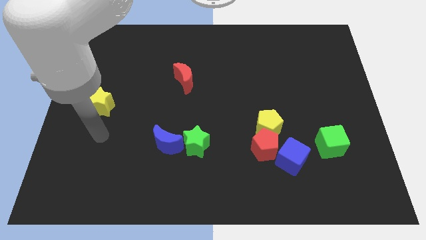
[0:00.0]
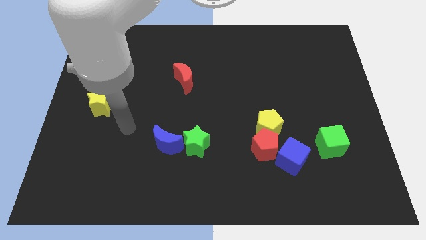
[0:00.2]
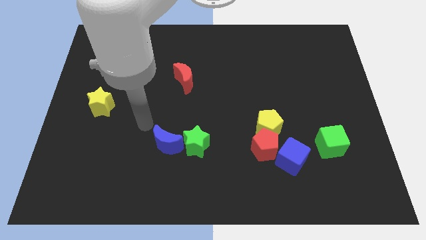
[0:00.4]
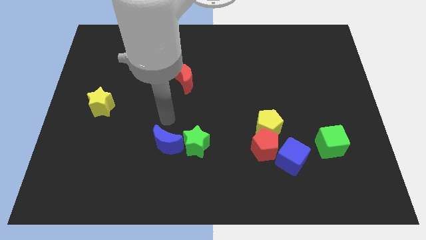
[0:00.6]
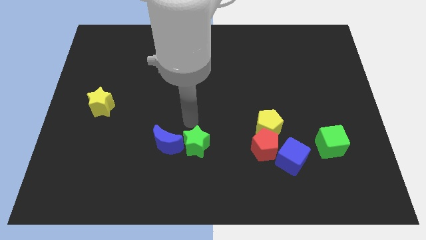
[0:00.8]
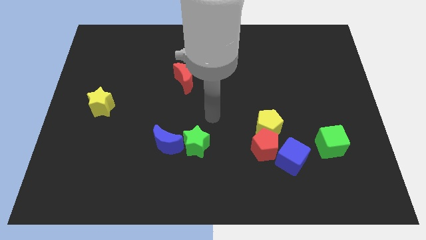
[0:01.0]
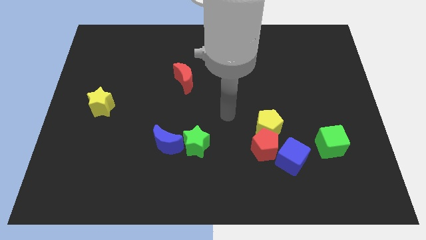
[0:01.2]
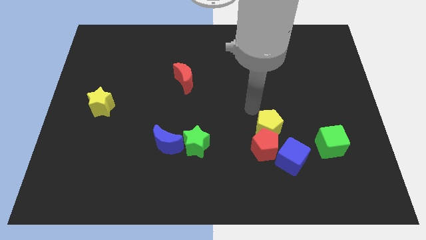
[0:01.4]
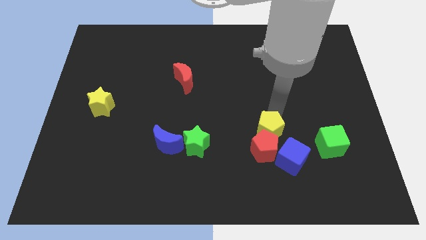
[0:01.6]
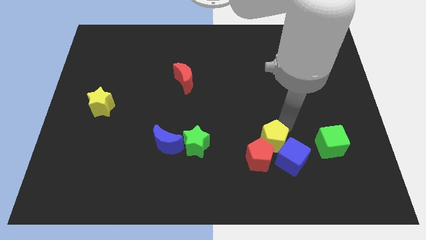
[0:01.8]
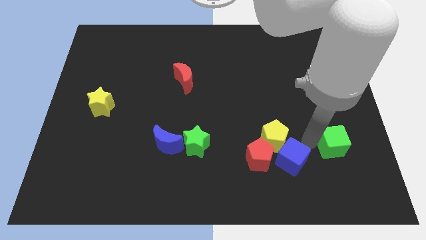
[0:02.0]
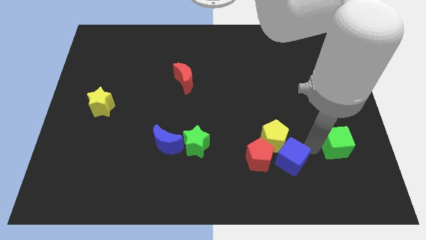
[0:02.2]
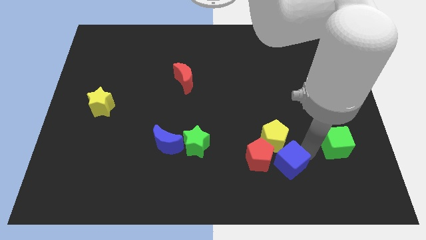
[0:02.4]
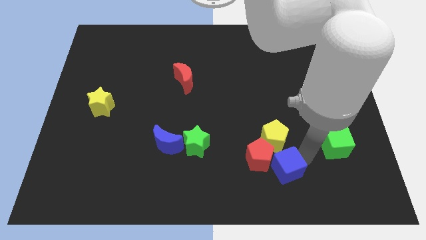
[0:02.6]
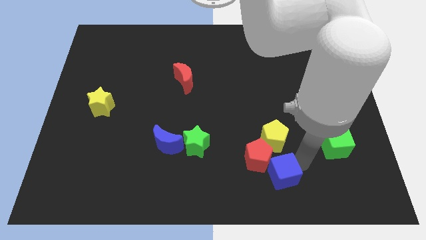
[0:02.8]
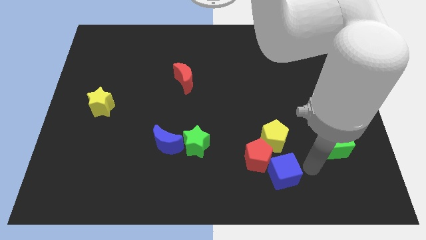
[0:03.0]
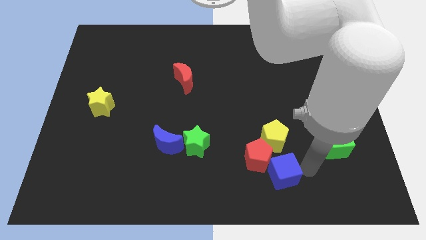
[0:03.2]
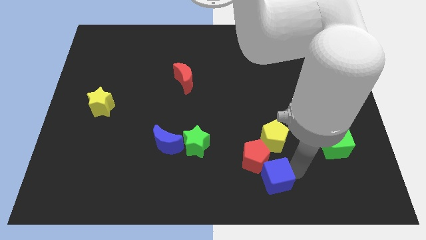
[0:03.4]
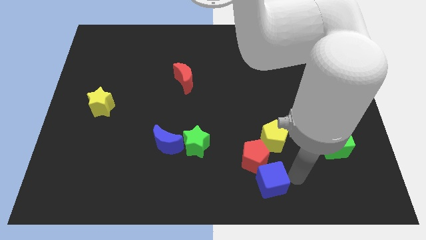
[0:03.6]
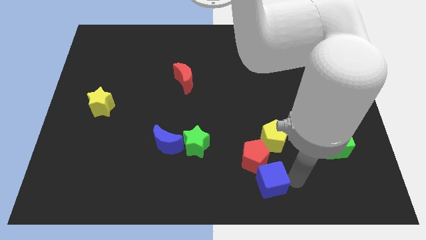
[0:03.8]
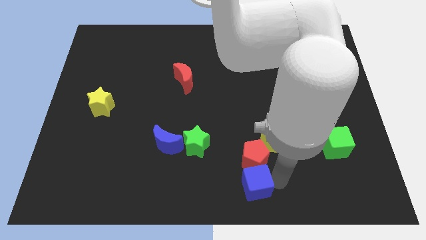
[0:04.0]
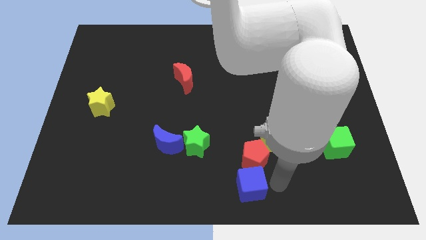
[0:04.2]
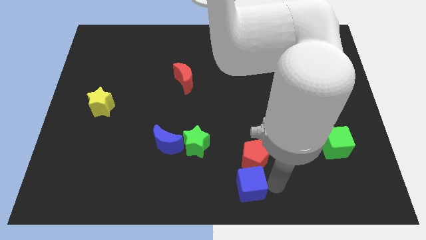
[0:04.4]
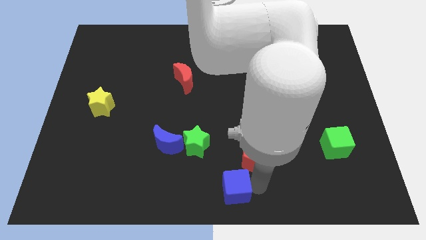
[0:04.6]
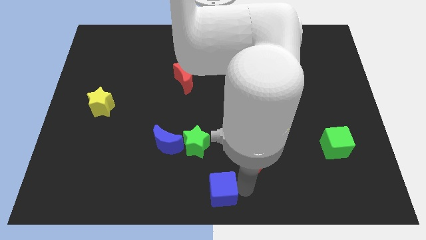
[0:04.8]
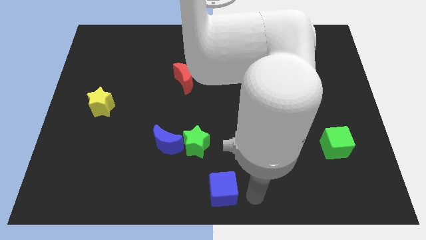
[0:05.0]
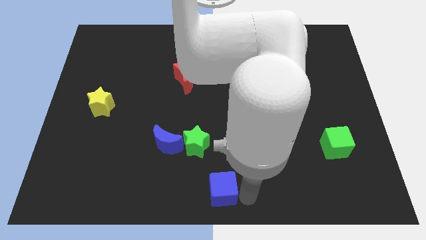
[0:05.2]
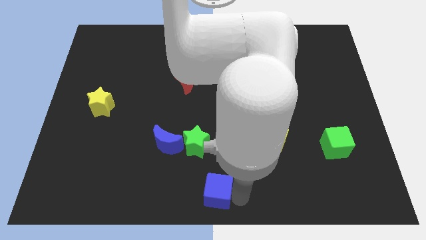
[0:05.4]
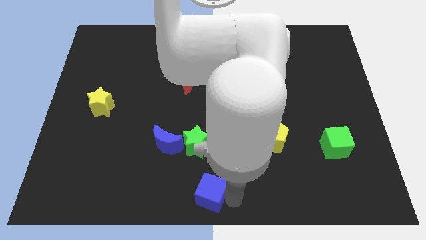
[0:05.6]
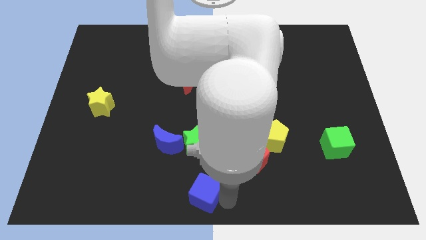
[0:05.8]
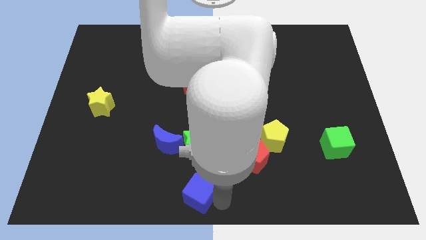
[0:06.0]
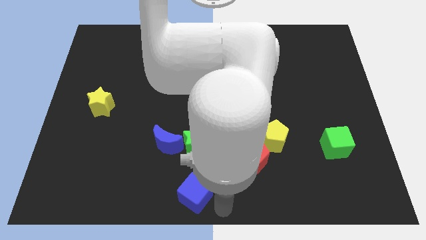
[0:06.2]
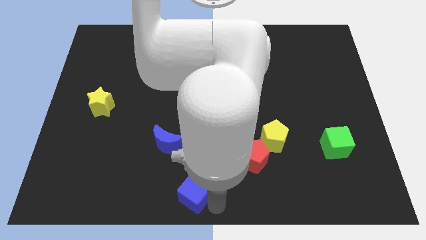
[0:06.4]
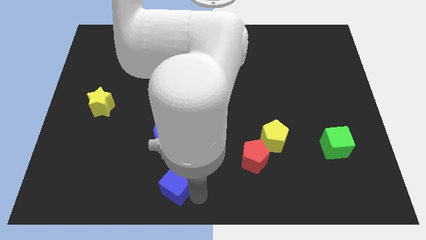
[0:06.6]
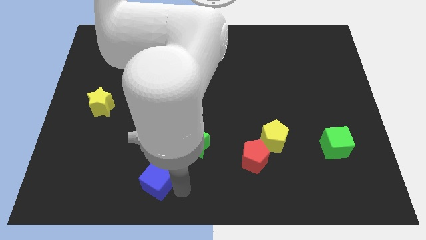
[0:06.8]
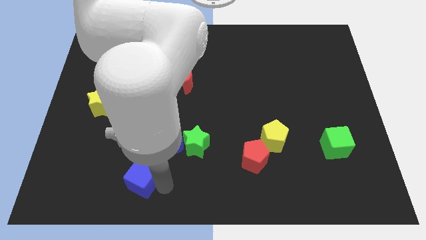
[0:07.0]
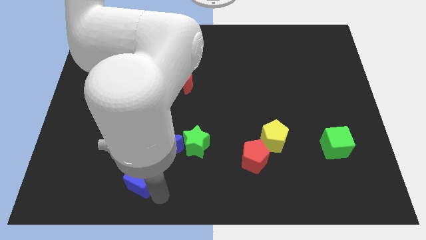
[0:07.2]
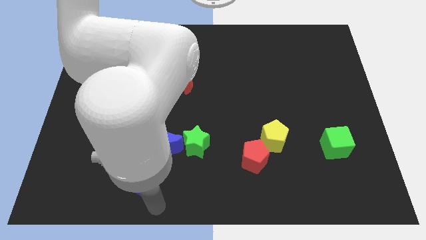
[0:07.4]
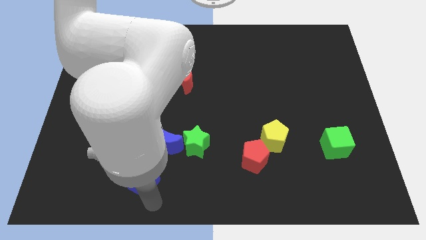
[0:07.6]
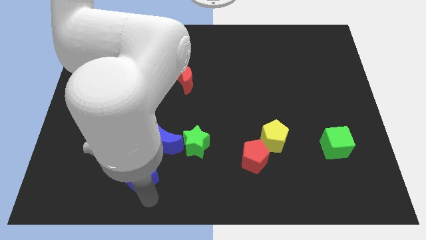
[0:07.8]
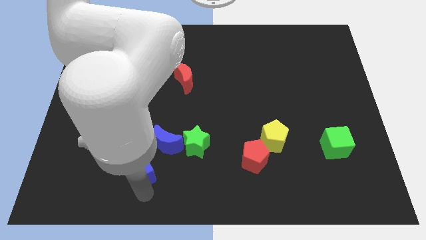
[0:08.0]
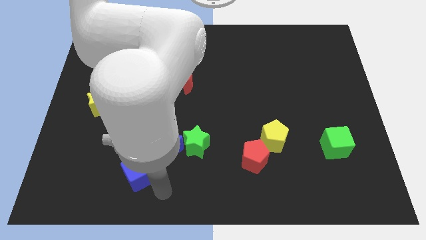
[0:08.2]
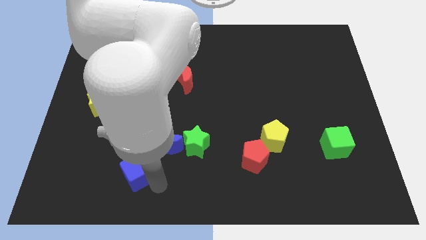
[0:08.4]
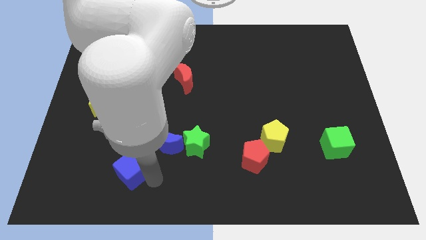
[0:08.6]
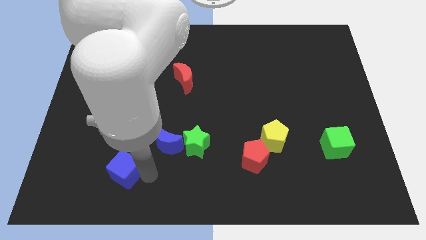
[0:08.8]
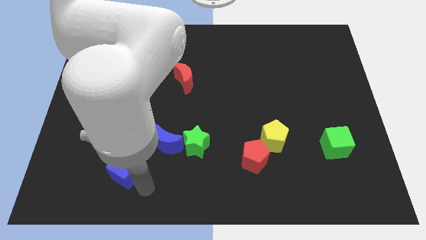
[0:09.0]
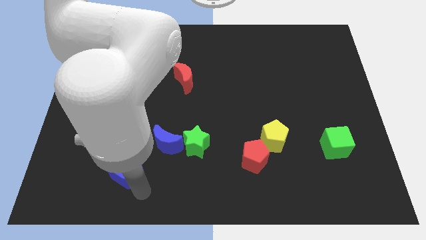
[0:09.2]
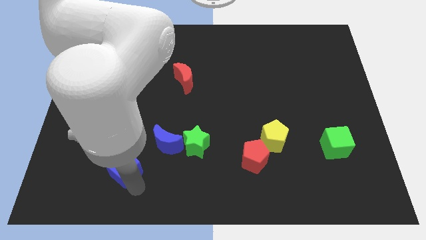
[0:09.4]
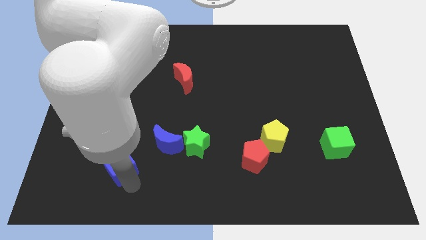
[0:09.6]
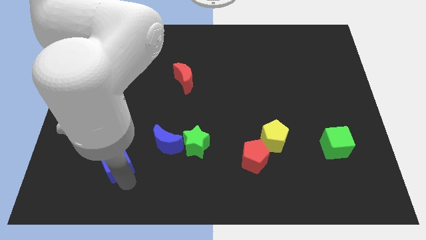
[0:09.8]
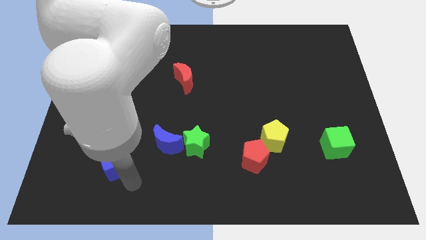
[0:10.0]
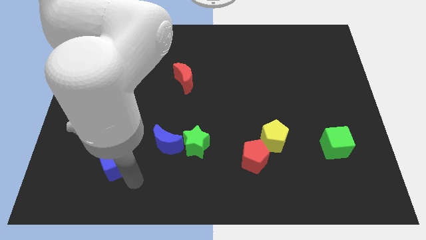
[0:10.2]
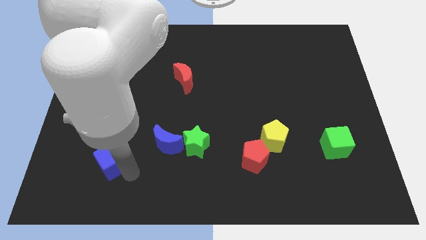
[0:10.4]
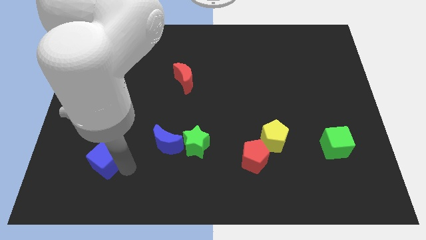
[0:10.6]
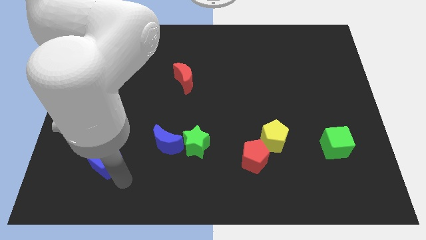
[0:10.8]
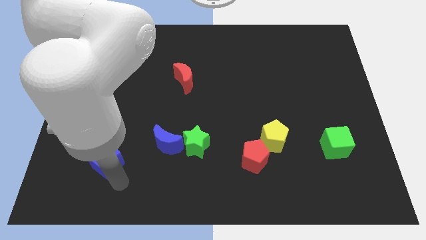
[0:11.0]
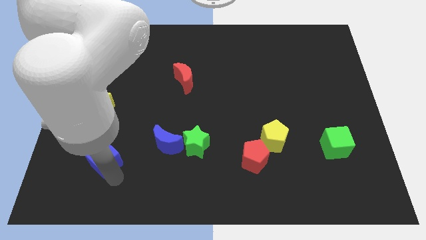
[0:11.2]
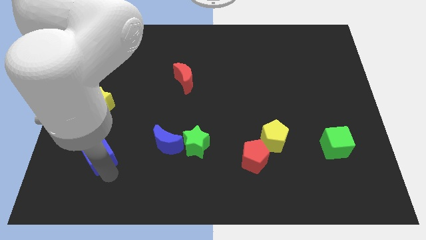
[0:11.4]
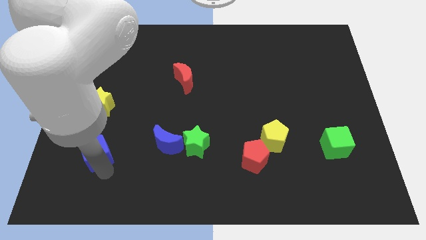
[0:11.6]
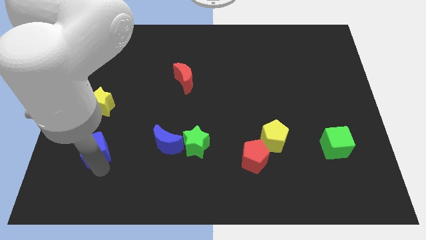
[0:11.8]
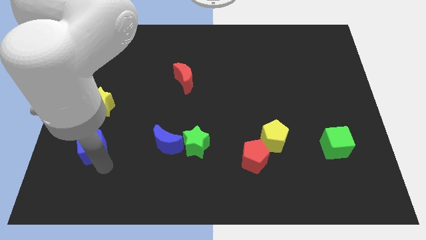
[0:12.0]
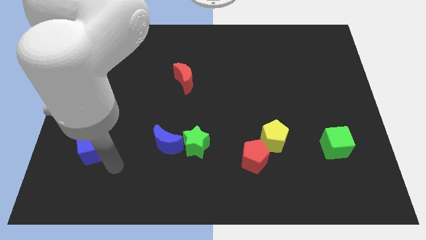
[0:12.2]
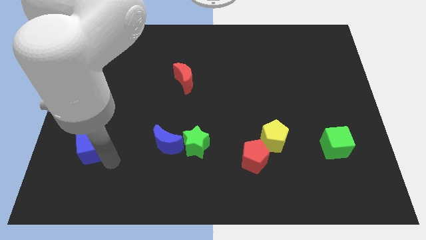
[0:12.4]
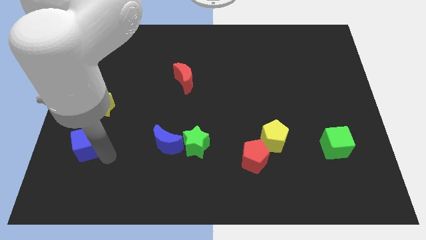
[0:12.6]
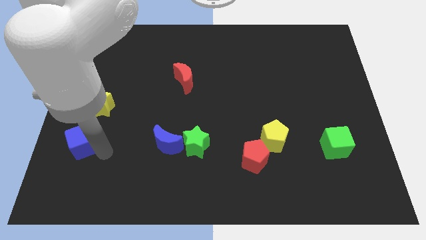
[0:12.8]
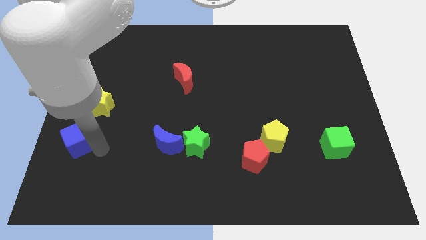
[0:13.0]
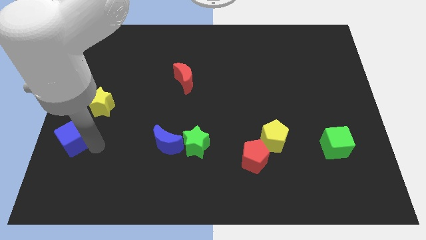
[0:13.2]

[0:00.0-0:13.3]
push the blue cube to the left side of the board
